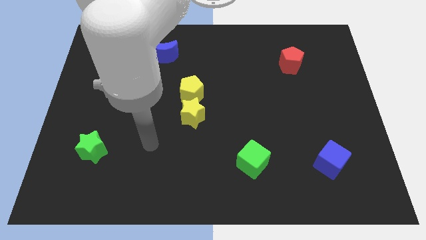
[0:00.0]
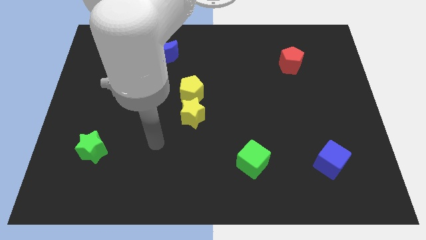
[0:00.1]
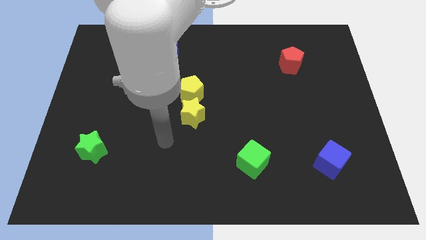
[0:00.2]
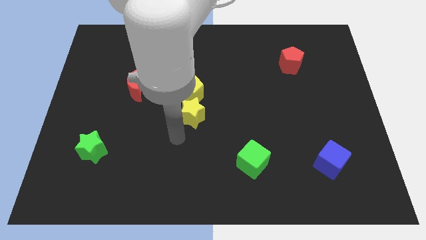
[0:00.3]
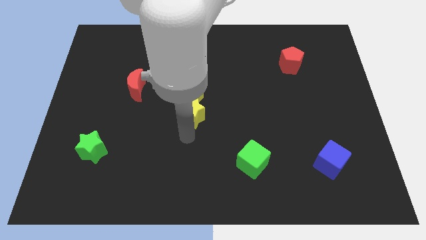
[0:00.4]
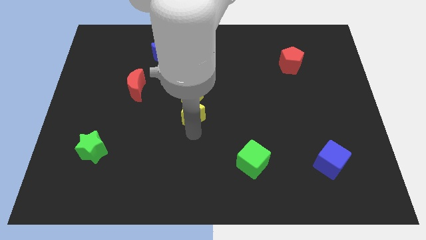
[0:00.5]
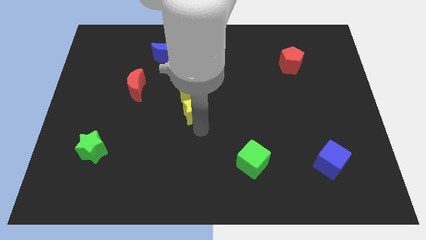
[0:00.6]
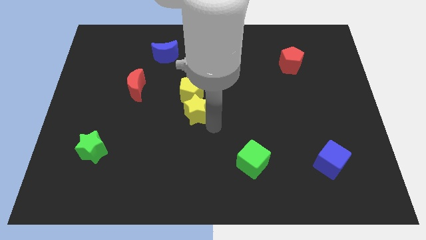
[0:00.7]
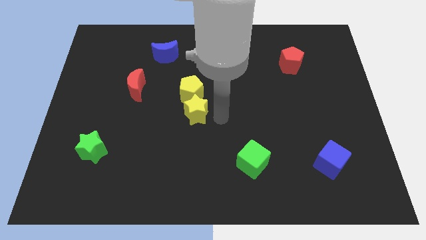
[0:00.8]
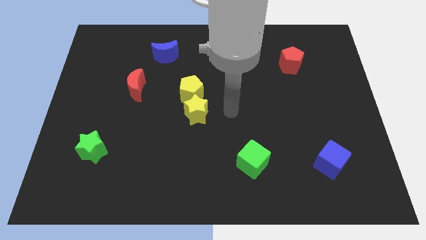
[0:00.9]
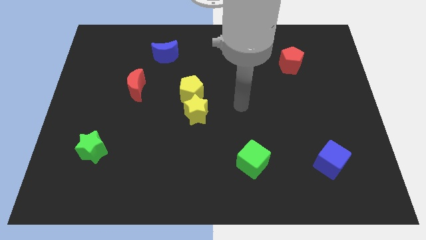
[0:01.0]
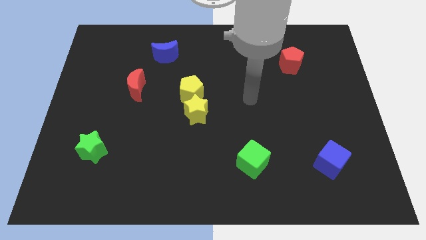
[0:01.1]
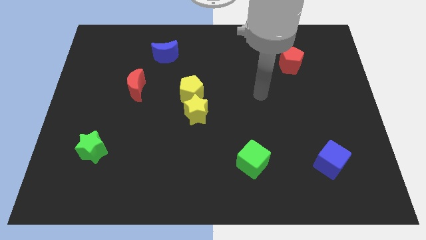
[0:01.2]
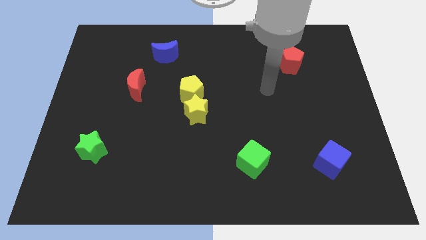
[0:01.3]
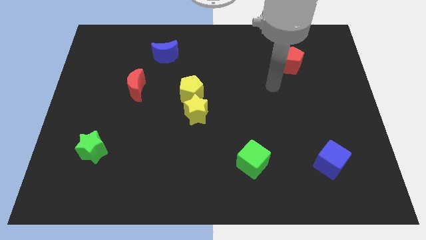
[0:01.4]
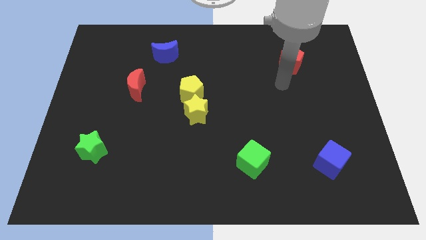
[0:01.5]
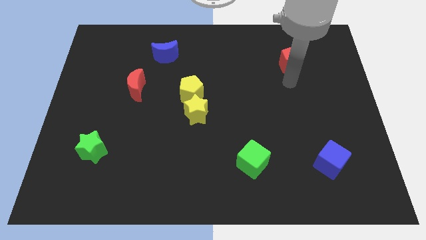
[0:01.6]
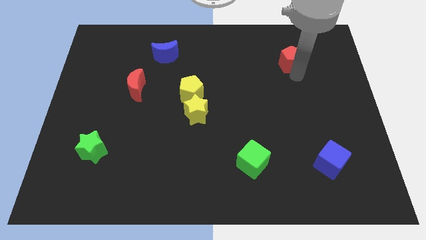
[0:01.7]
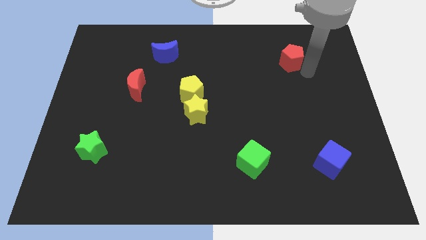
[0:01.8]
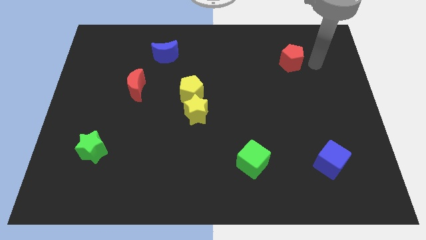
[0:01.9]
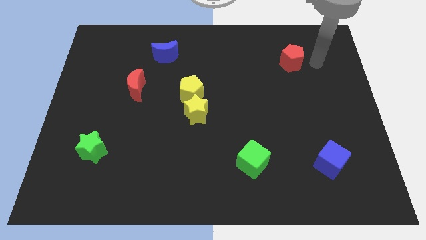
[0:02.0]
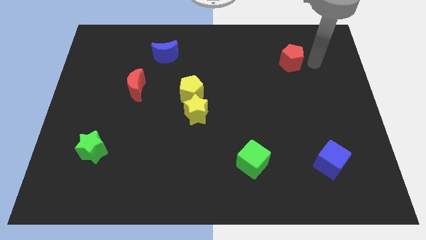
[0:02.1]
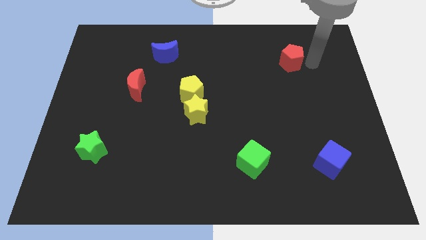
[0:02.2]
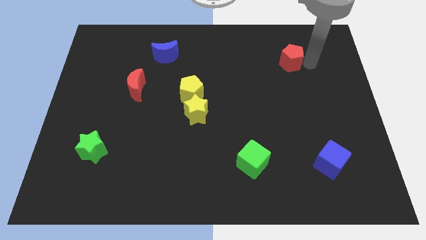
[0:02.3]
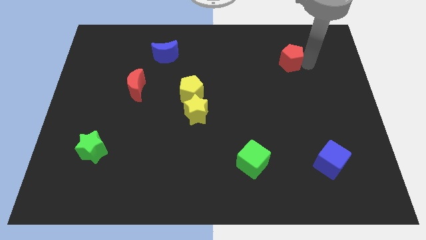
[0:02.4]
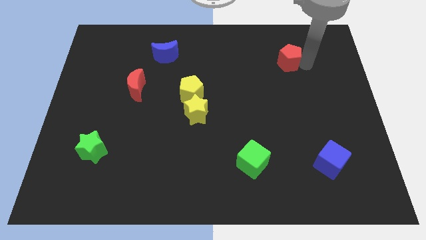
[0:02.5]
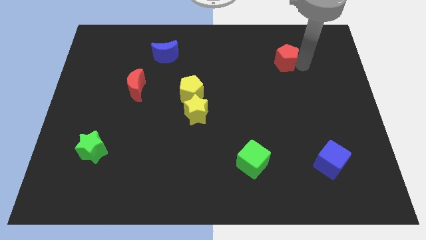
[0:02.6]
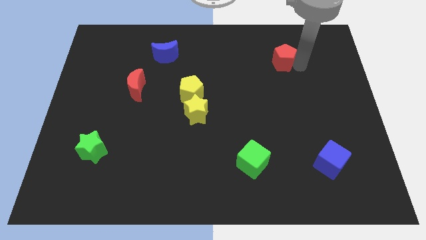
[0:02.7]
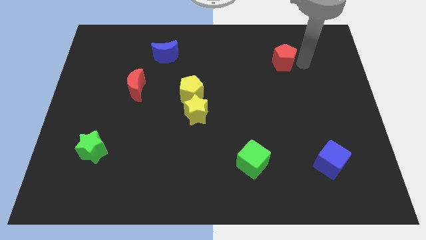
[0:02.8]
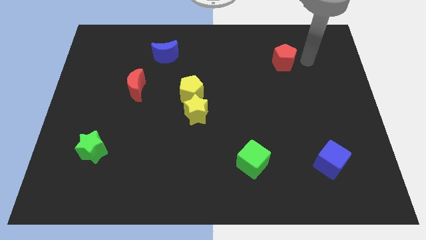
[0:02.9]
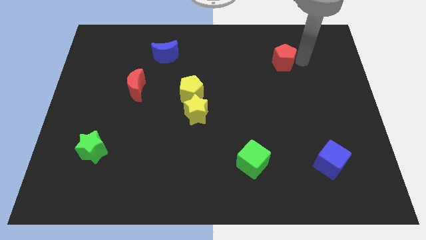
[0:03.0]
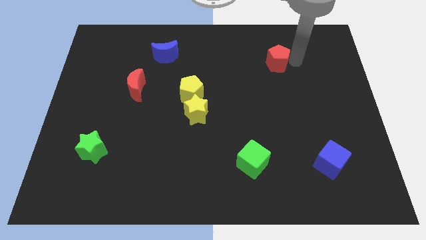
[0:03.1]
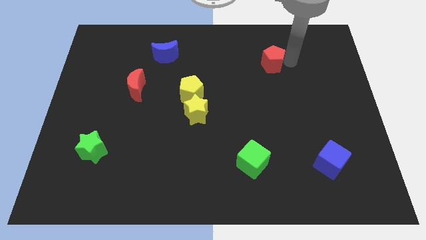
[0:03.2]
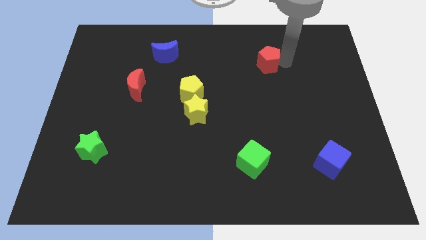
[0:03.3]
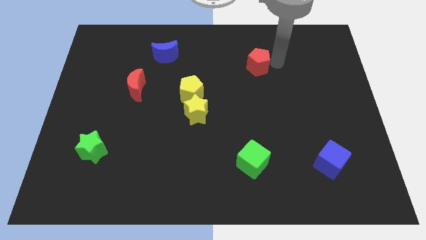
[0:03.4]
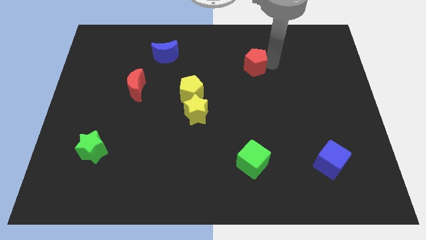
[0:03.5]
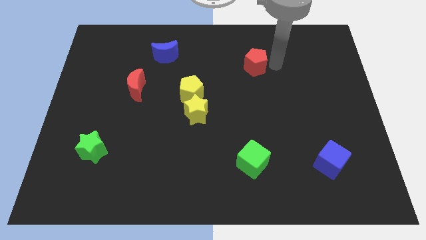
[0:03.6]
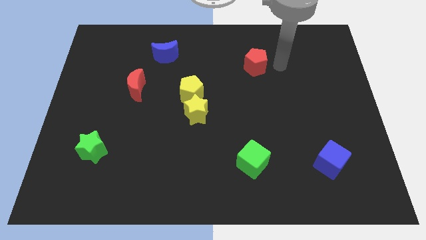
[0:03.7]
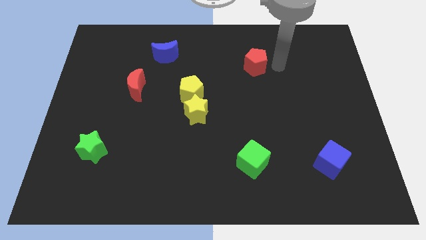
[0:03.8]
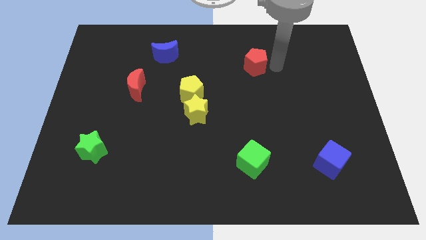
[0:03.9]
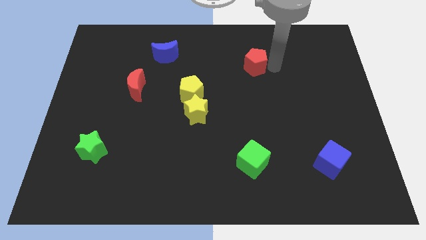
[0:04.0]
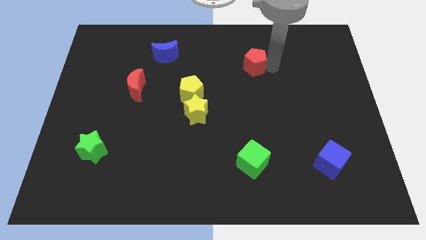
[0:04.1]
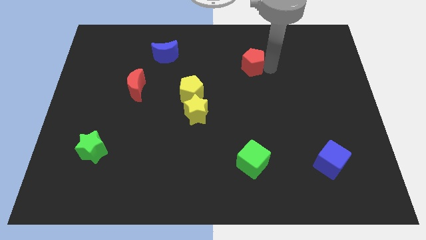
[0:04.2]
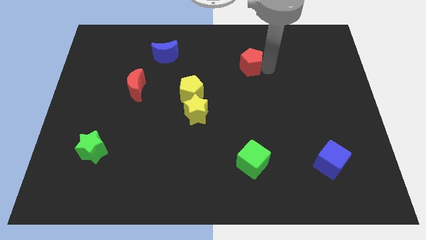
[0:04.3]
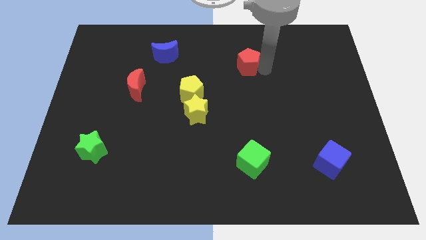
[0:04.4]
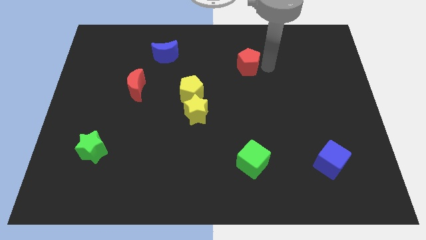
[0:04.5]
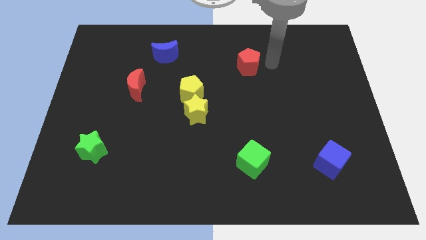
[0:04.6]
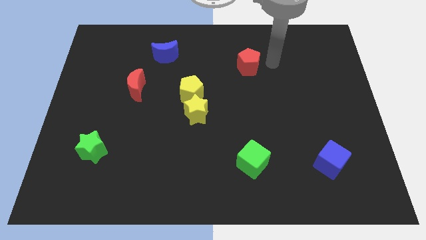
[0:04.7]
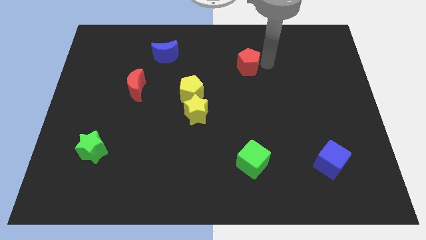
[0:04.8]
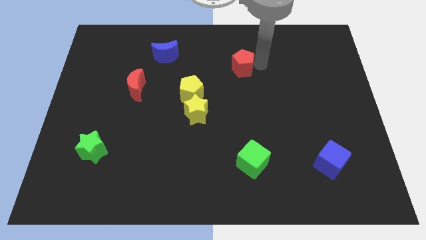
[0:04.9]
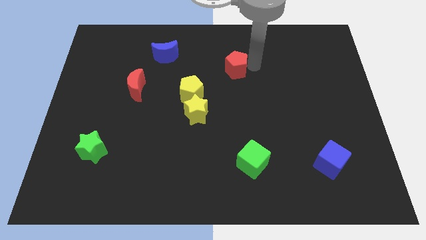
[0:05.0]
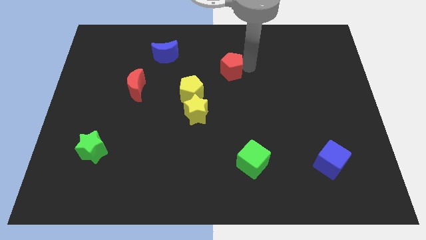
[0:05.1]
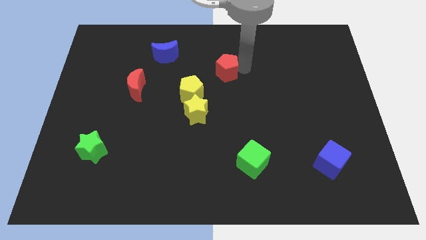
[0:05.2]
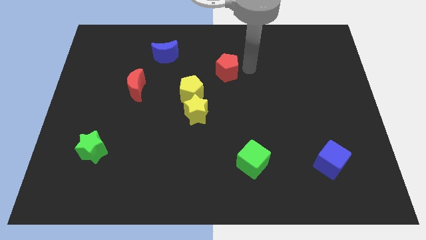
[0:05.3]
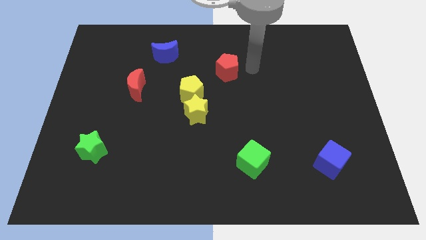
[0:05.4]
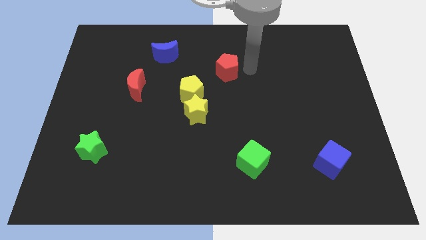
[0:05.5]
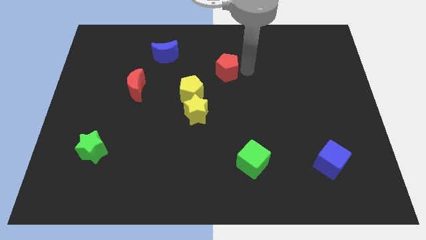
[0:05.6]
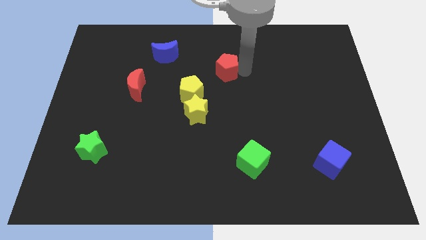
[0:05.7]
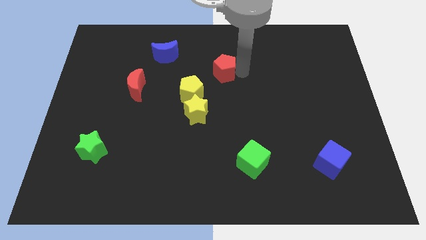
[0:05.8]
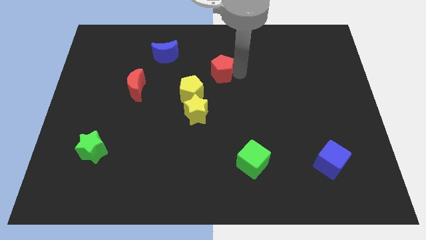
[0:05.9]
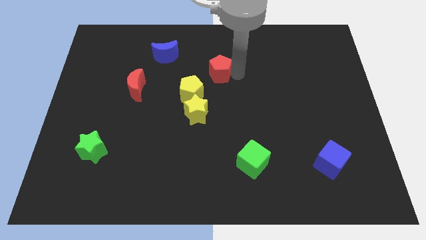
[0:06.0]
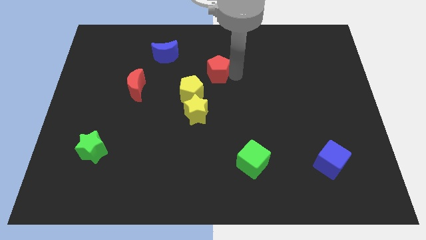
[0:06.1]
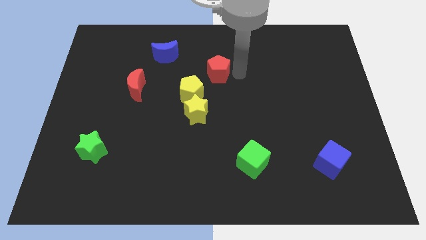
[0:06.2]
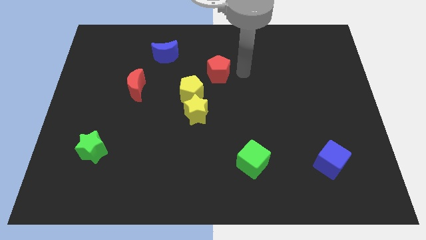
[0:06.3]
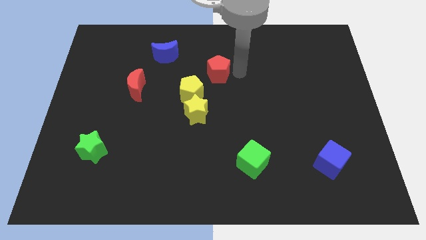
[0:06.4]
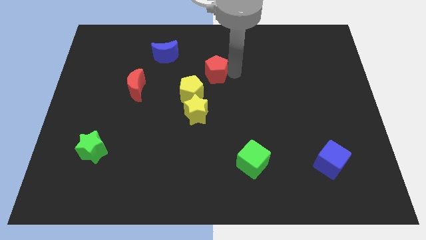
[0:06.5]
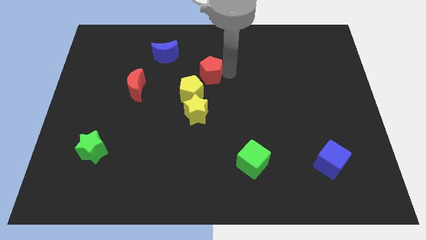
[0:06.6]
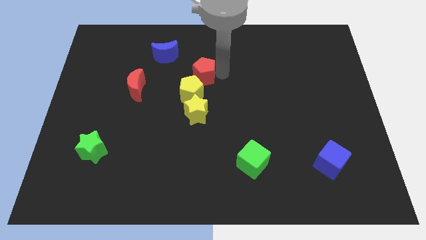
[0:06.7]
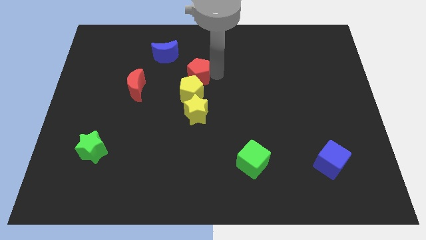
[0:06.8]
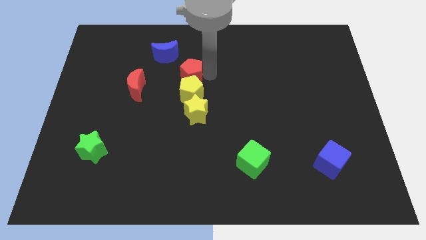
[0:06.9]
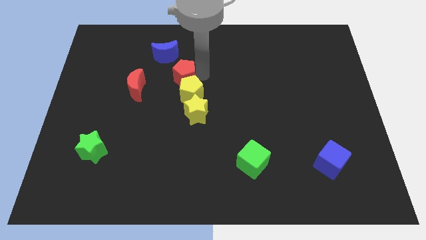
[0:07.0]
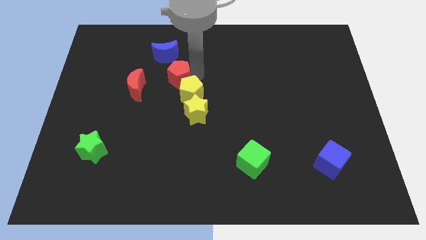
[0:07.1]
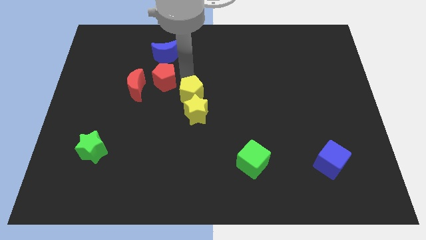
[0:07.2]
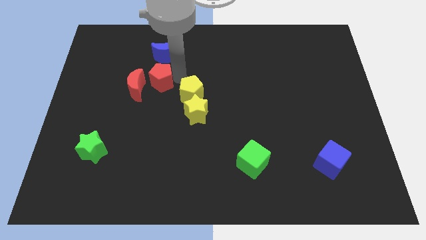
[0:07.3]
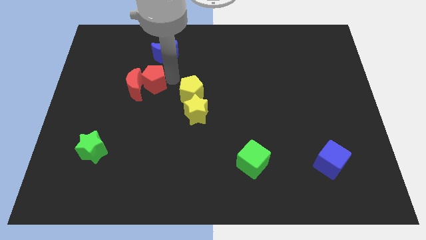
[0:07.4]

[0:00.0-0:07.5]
move the red pentagon close to the red moon

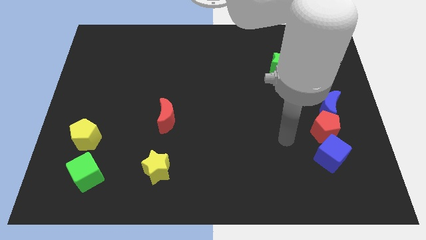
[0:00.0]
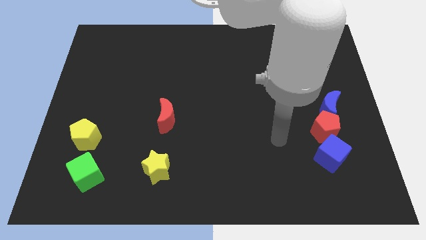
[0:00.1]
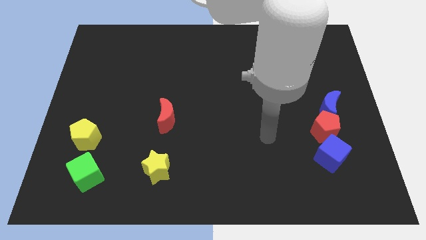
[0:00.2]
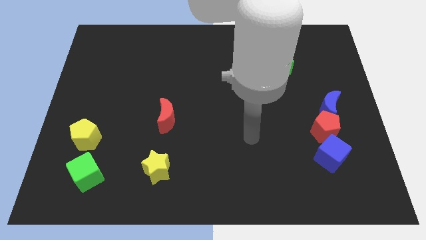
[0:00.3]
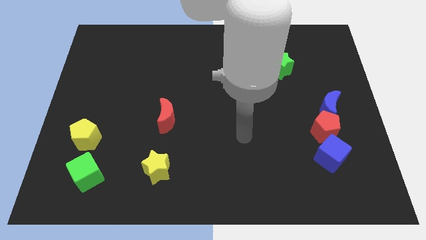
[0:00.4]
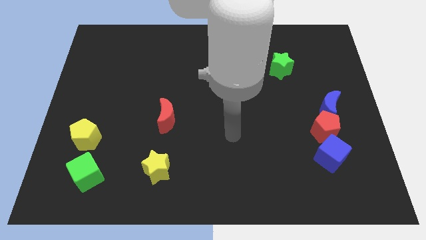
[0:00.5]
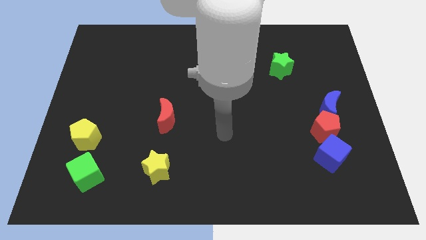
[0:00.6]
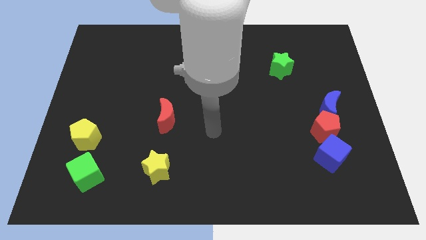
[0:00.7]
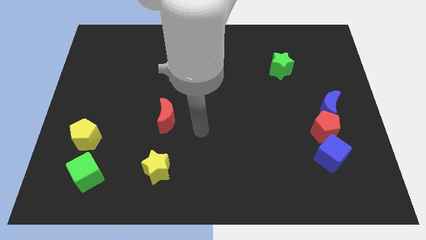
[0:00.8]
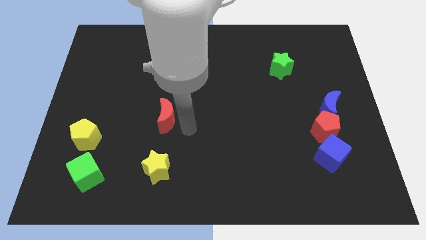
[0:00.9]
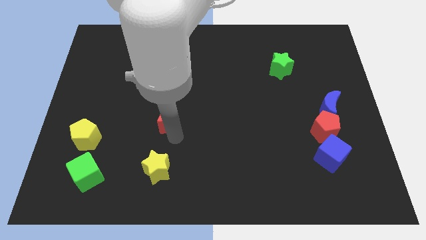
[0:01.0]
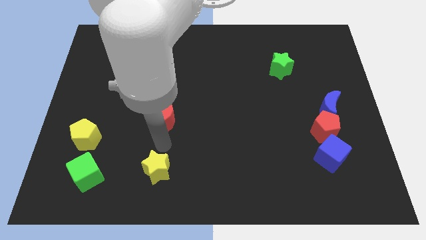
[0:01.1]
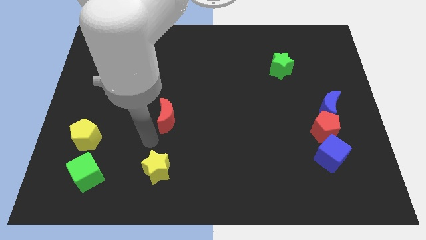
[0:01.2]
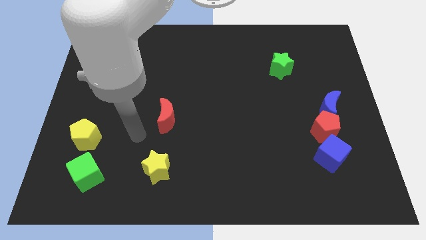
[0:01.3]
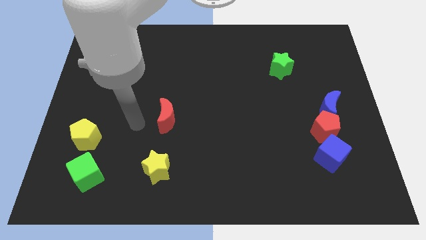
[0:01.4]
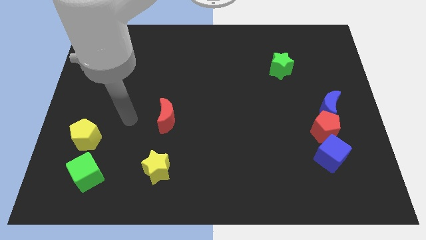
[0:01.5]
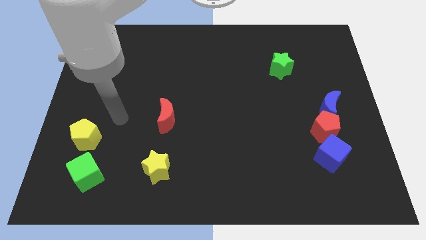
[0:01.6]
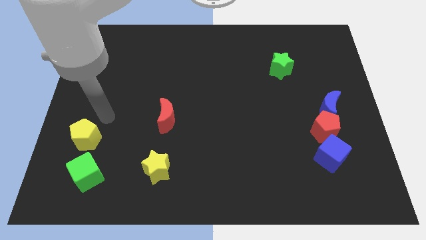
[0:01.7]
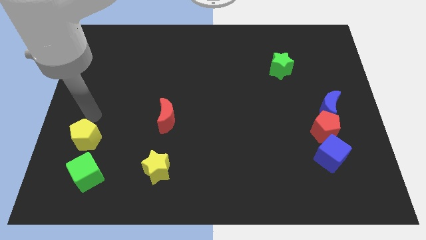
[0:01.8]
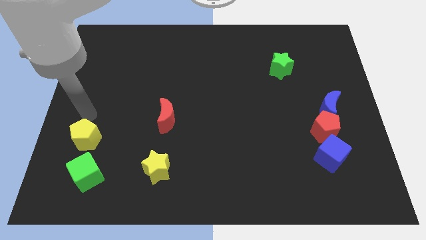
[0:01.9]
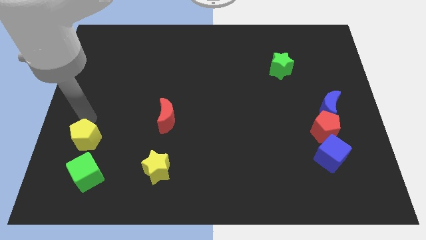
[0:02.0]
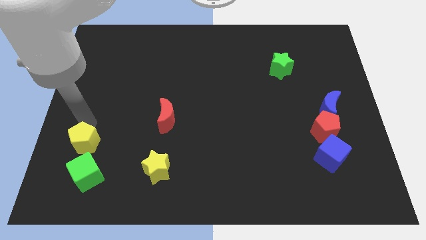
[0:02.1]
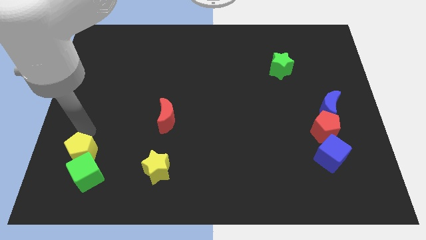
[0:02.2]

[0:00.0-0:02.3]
slide the yellow pentagon close to the green cube
